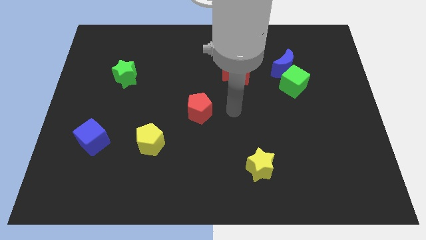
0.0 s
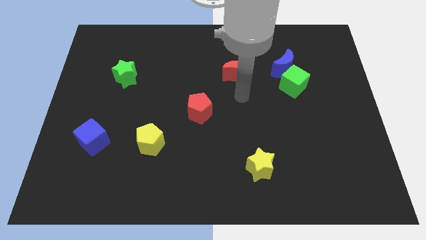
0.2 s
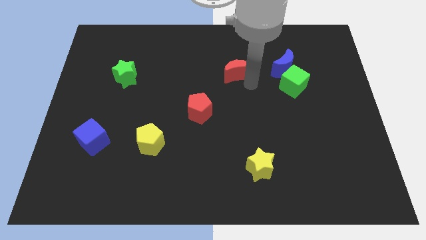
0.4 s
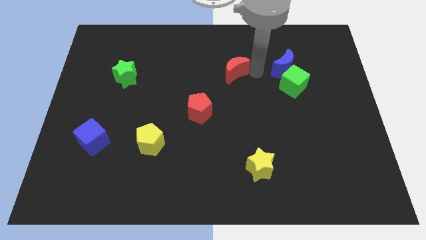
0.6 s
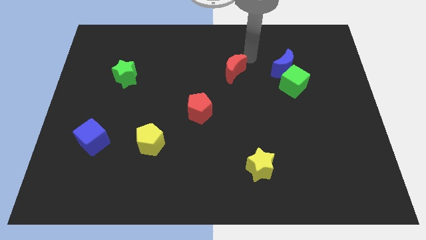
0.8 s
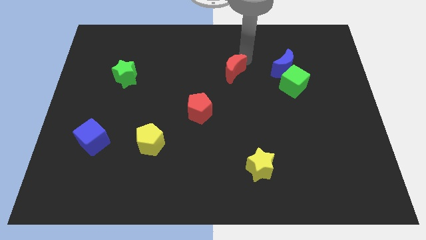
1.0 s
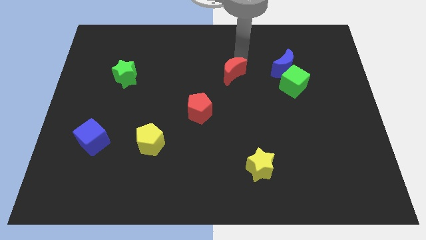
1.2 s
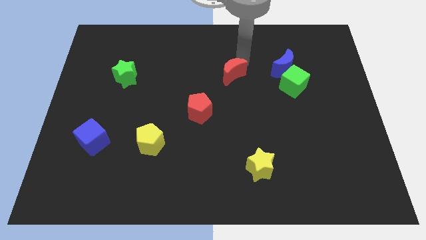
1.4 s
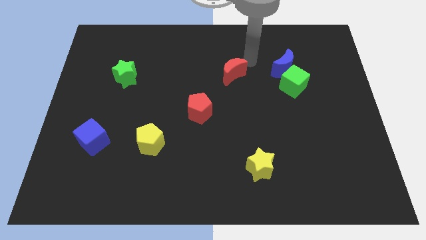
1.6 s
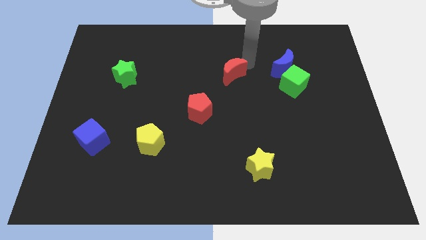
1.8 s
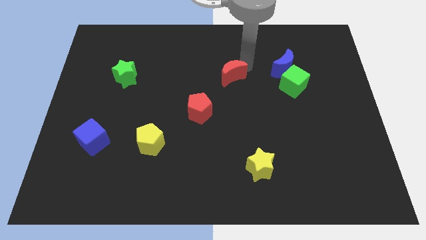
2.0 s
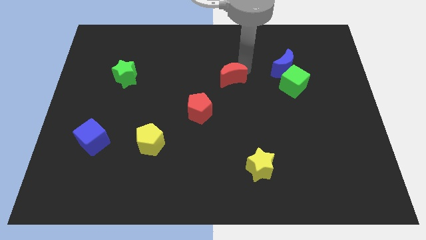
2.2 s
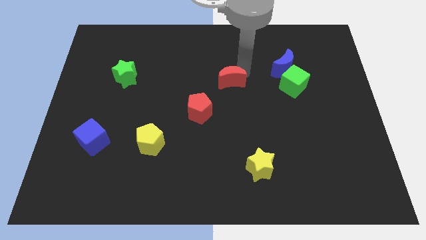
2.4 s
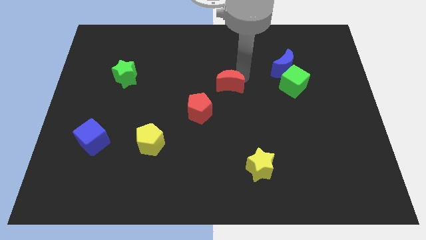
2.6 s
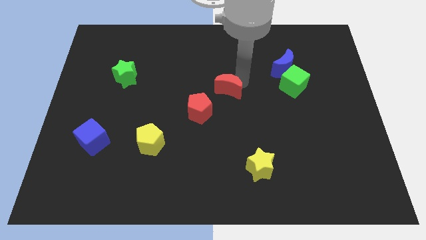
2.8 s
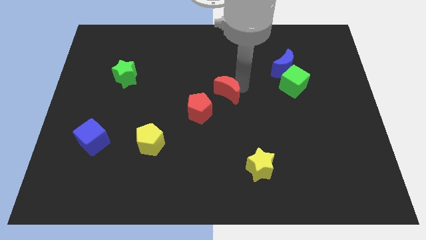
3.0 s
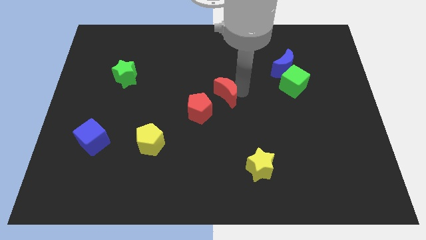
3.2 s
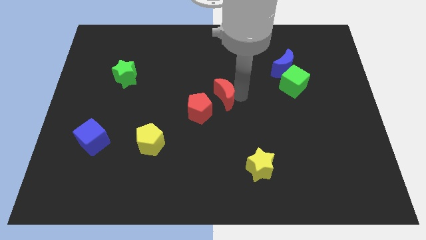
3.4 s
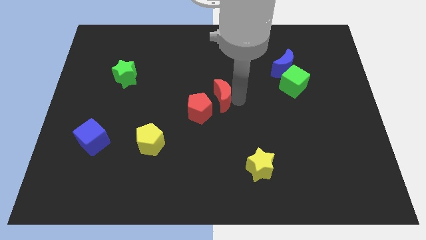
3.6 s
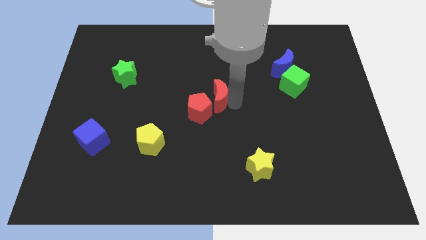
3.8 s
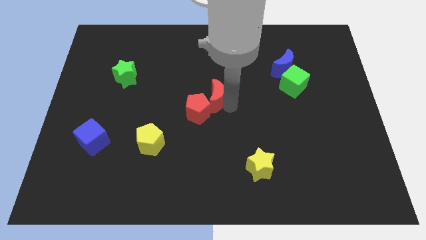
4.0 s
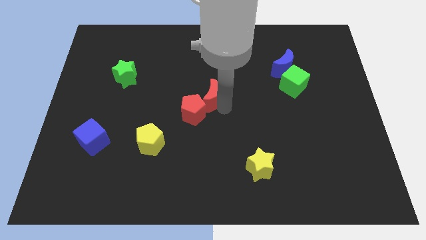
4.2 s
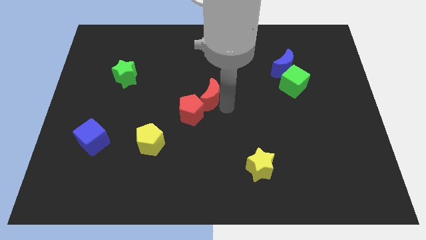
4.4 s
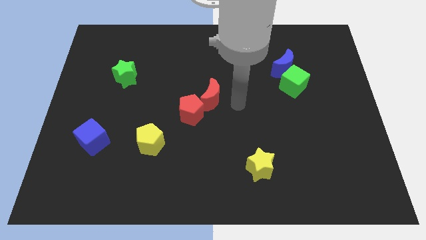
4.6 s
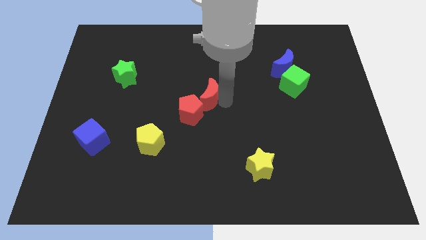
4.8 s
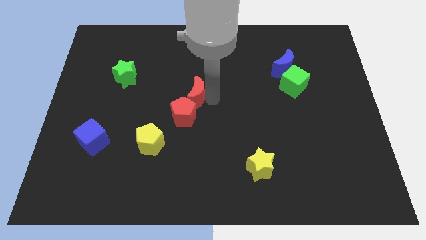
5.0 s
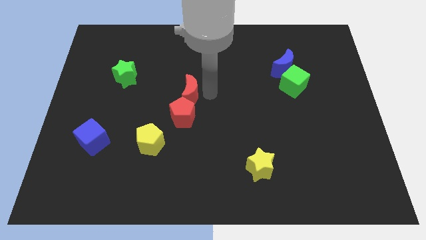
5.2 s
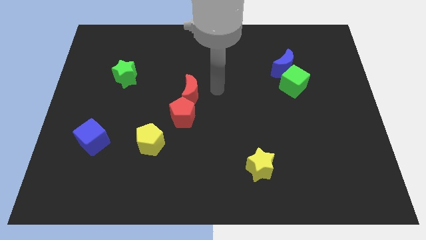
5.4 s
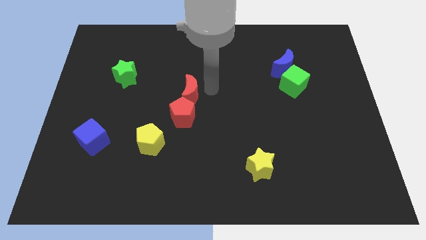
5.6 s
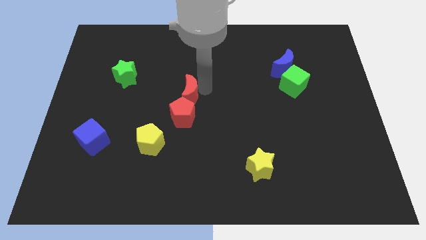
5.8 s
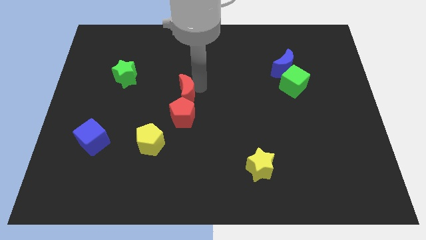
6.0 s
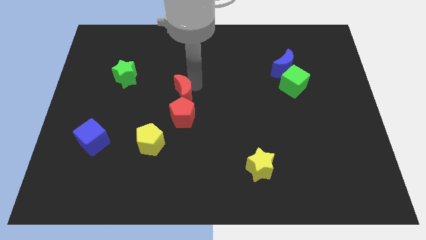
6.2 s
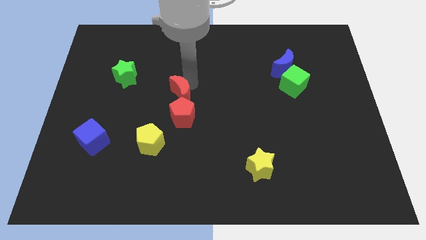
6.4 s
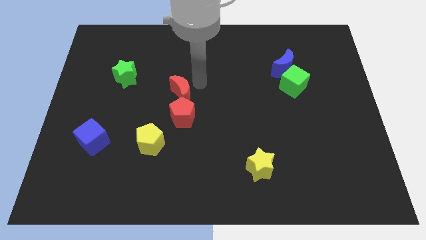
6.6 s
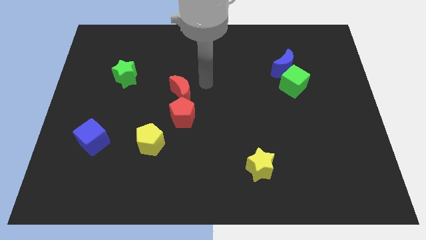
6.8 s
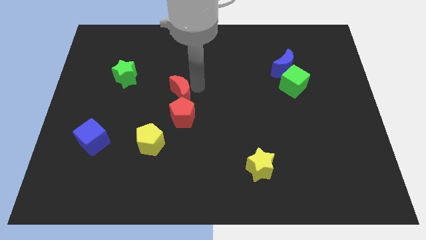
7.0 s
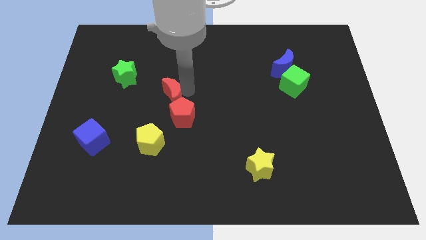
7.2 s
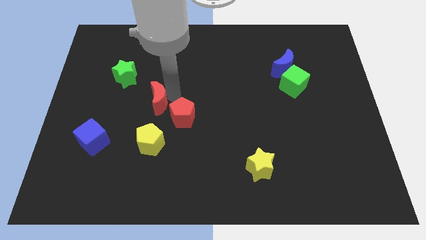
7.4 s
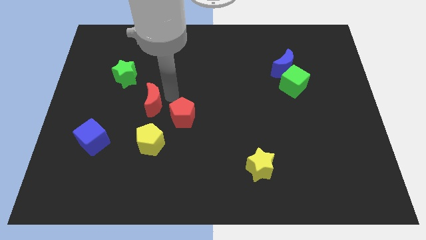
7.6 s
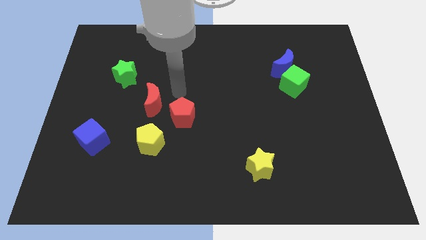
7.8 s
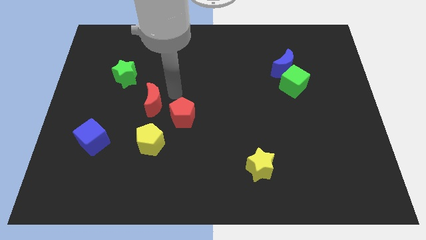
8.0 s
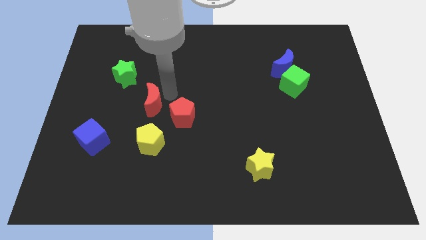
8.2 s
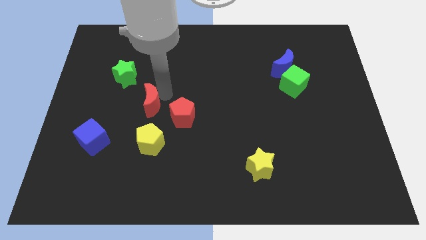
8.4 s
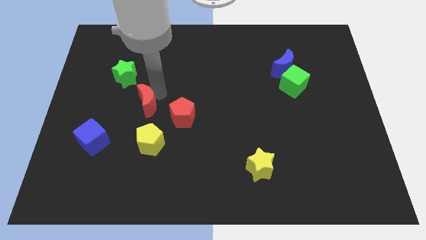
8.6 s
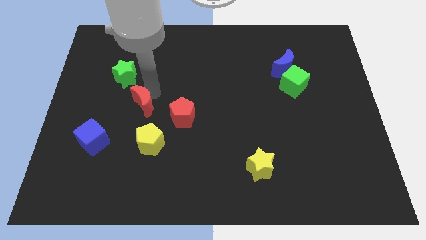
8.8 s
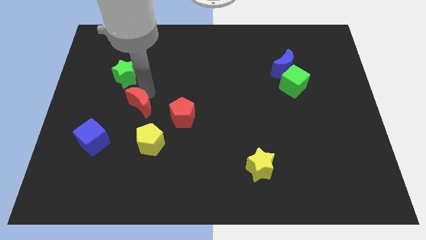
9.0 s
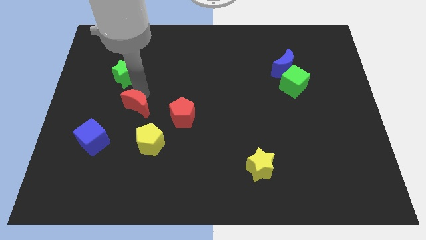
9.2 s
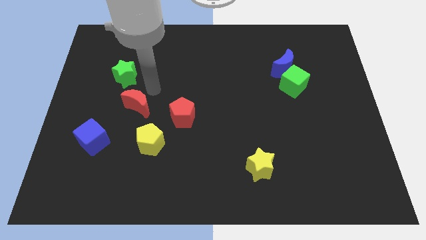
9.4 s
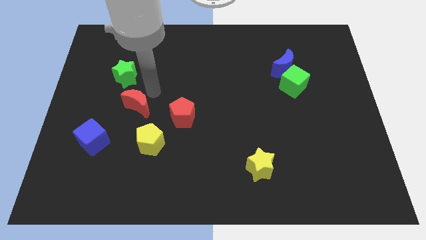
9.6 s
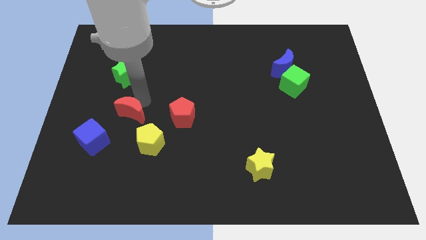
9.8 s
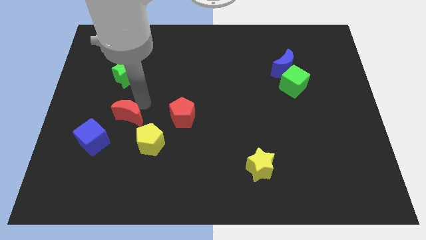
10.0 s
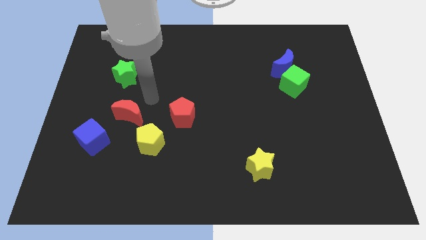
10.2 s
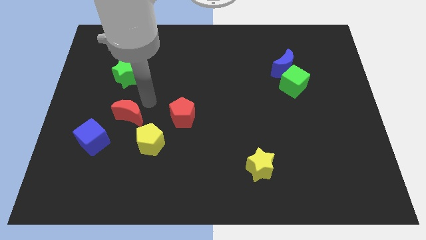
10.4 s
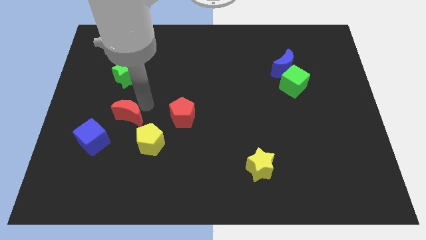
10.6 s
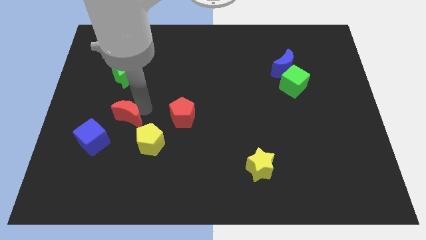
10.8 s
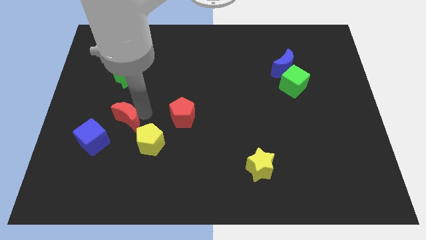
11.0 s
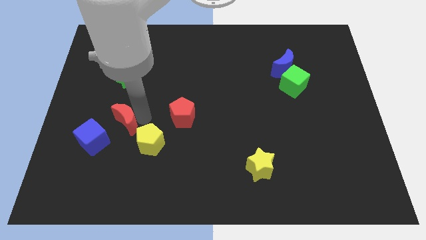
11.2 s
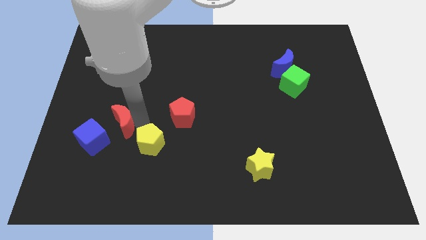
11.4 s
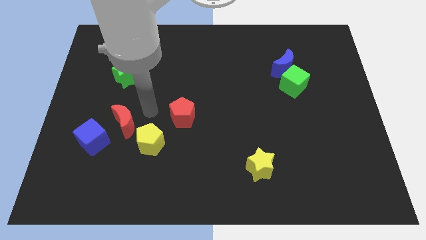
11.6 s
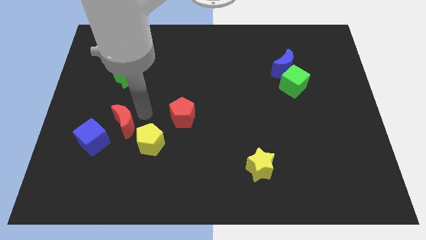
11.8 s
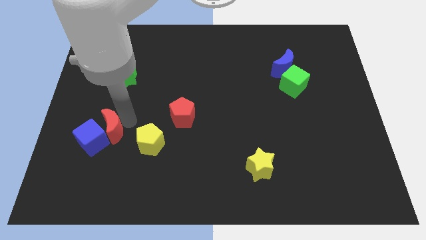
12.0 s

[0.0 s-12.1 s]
put the red moon next to the blue cube

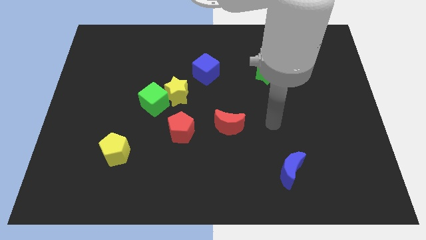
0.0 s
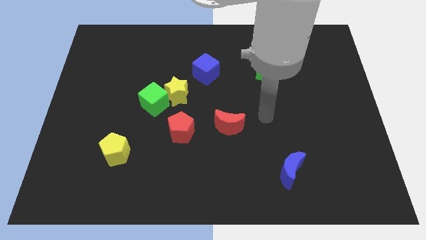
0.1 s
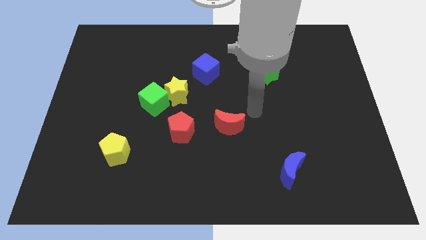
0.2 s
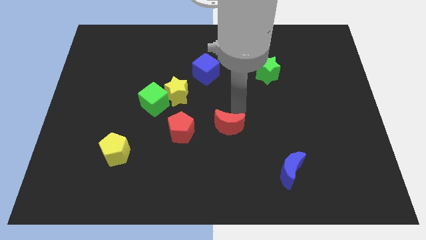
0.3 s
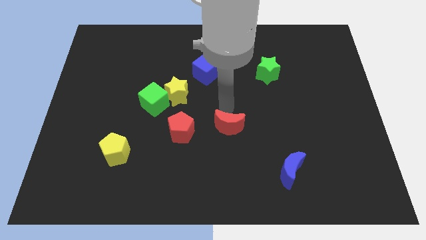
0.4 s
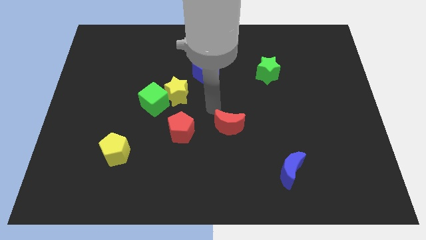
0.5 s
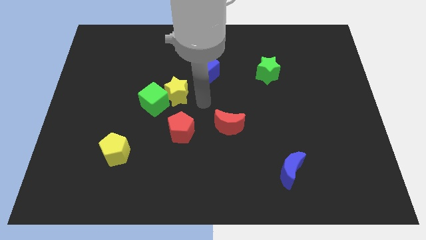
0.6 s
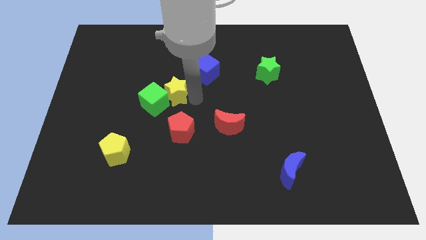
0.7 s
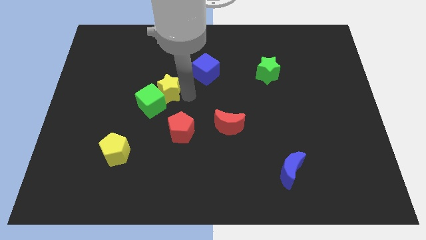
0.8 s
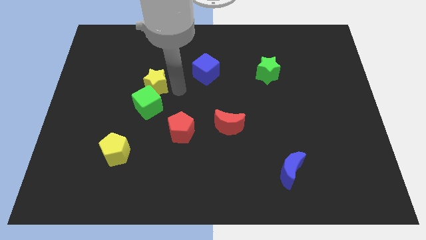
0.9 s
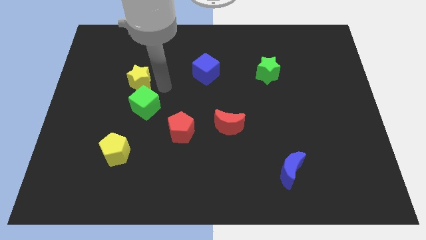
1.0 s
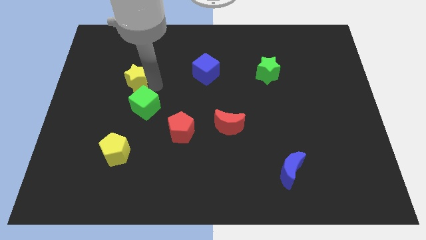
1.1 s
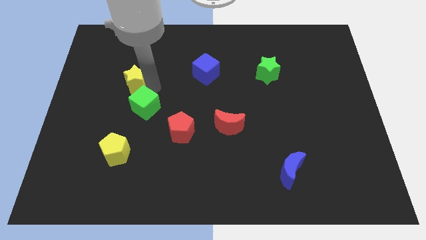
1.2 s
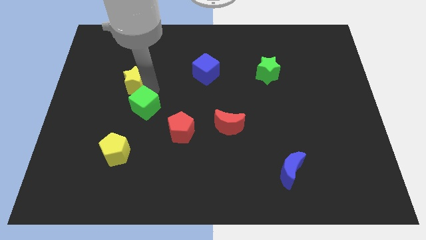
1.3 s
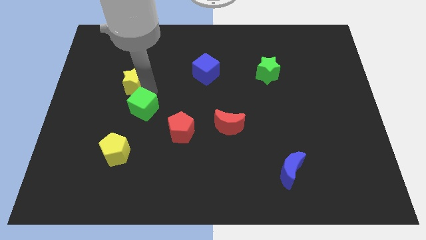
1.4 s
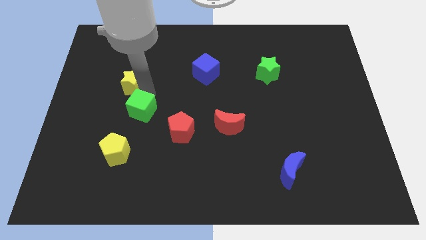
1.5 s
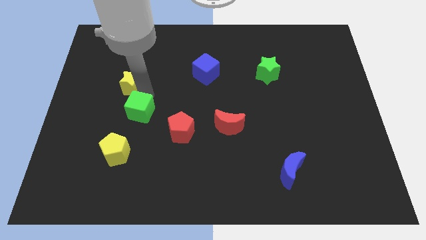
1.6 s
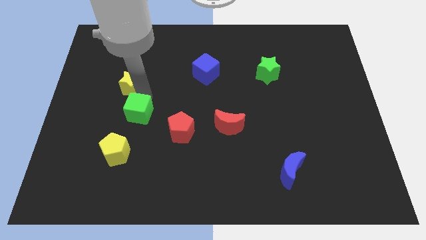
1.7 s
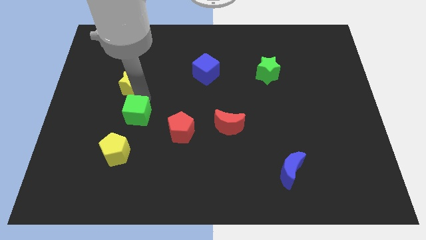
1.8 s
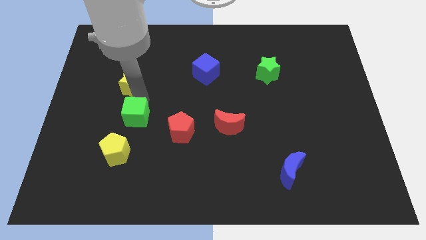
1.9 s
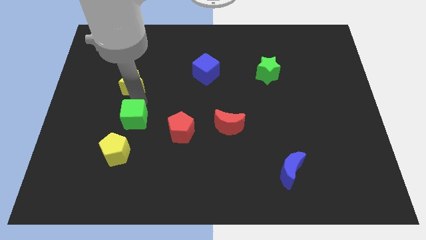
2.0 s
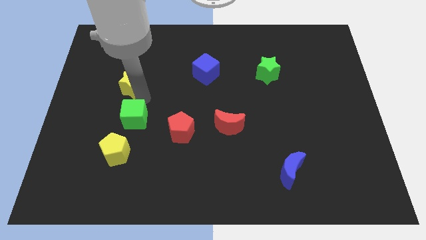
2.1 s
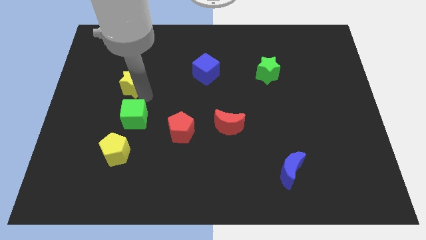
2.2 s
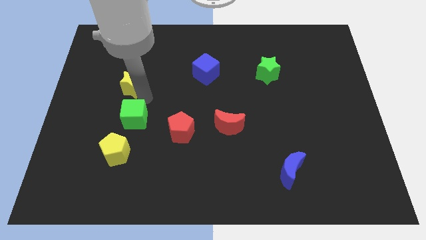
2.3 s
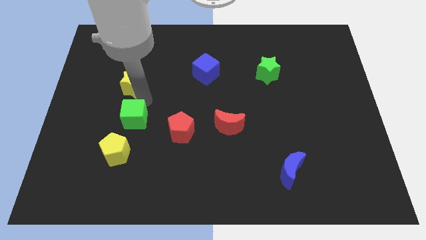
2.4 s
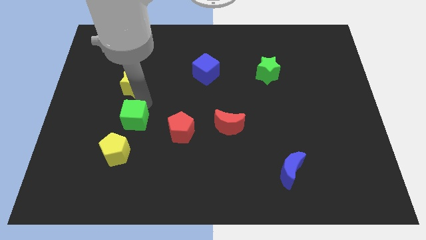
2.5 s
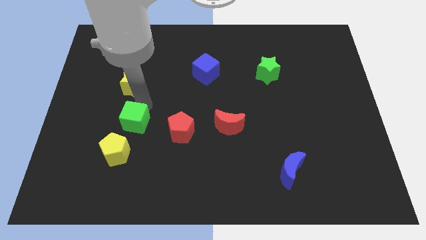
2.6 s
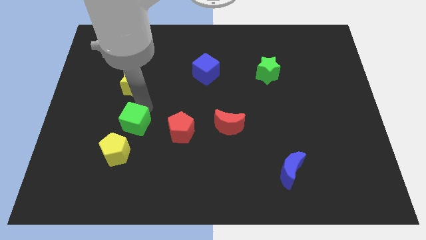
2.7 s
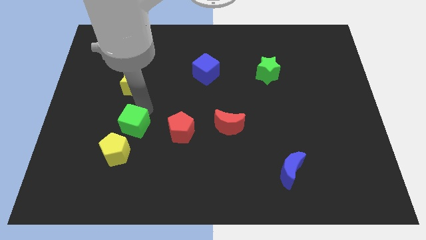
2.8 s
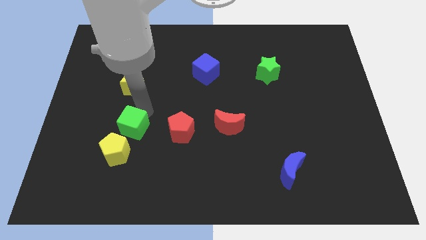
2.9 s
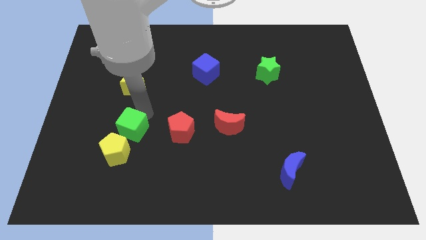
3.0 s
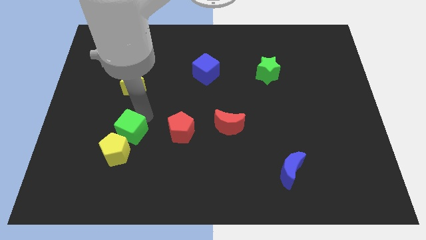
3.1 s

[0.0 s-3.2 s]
move the green cube towards the yellow pentagon
